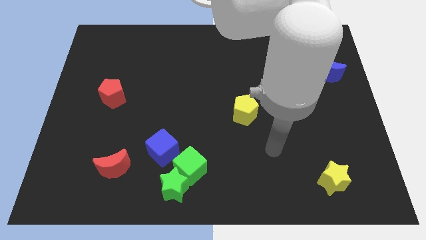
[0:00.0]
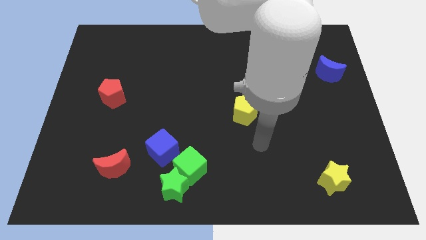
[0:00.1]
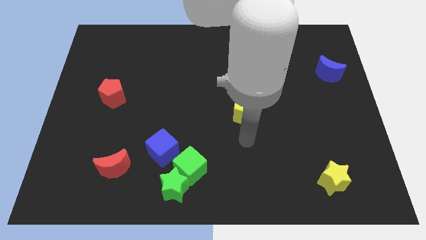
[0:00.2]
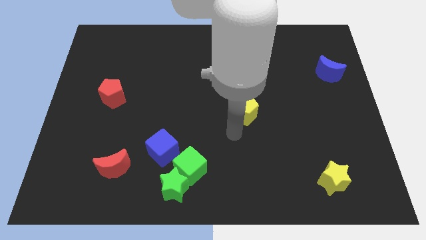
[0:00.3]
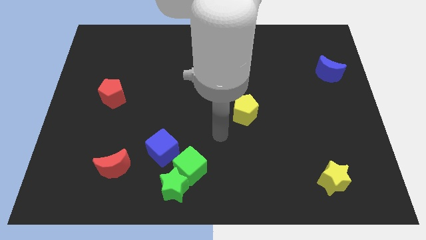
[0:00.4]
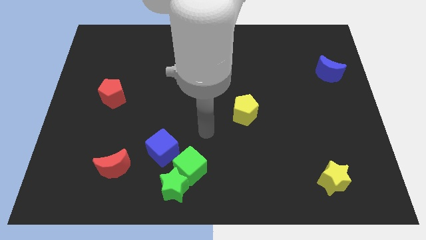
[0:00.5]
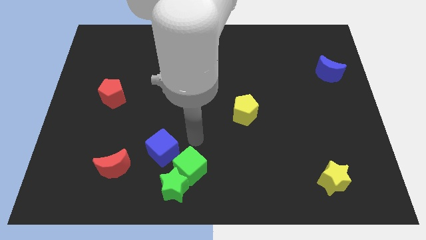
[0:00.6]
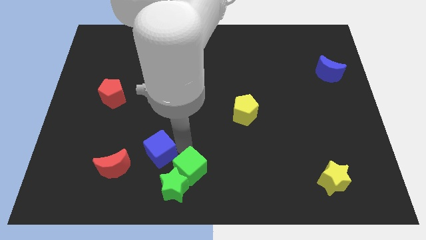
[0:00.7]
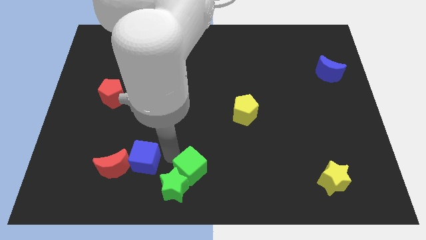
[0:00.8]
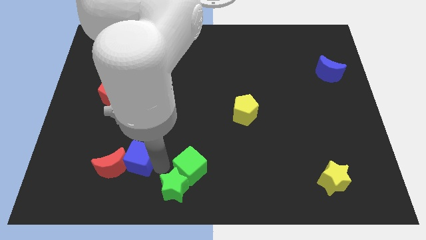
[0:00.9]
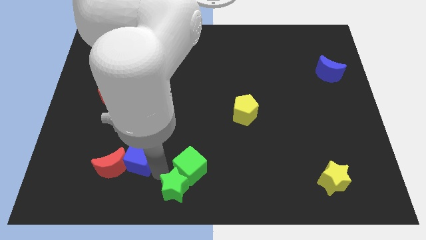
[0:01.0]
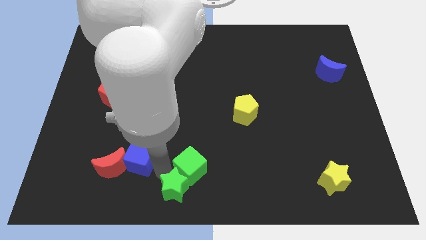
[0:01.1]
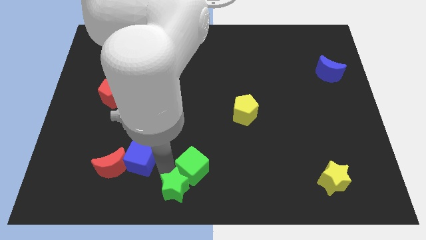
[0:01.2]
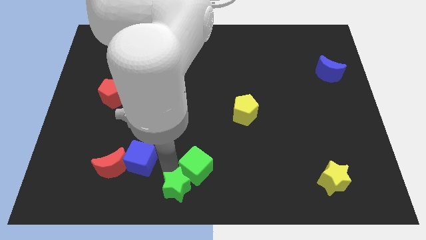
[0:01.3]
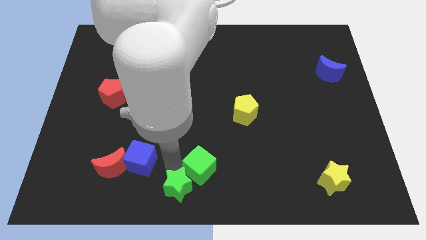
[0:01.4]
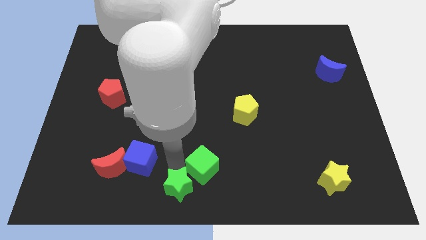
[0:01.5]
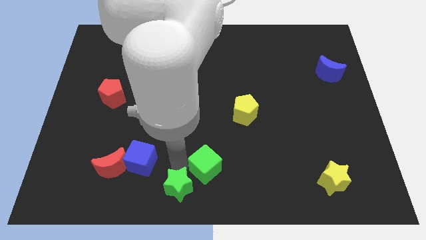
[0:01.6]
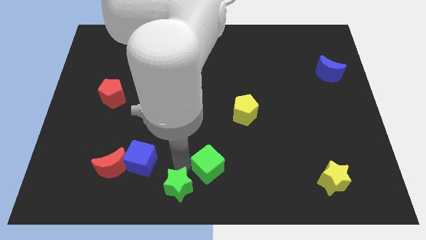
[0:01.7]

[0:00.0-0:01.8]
separate the green cube from the green star and blue cube

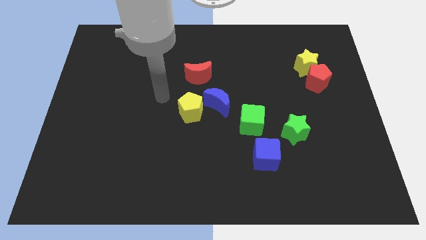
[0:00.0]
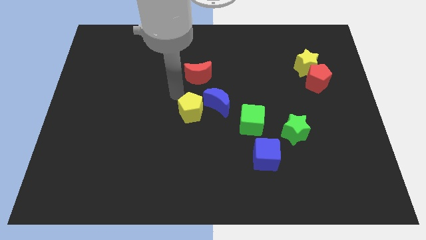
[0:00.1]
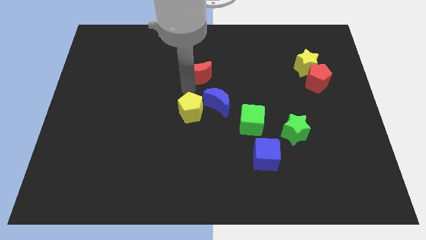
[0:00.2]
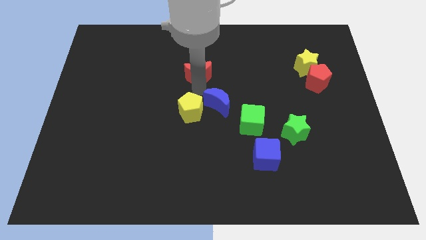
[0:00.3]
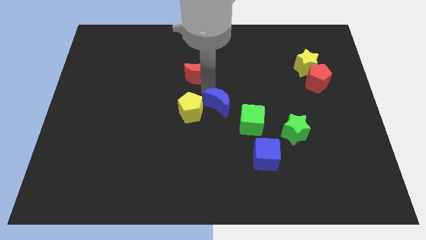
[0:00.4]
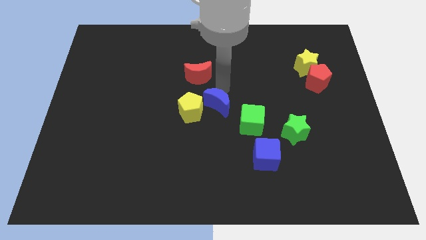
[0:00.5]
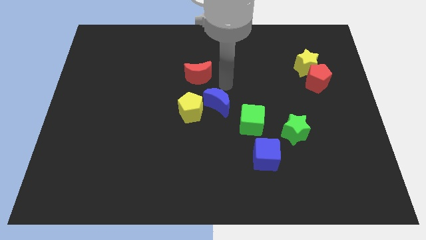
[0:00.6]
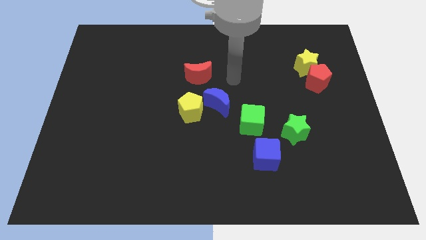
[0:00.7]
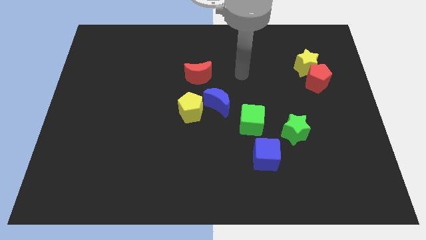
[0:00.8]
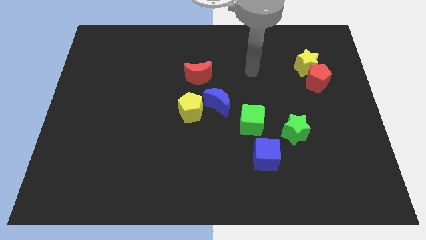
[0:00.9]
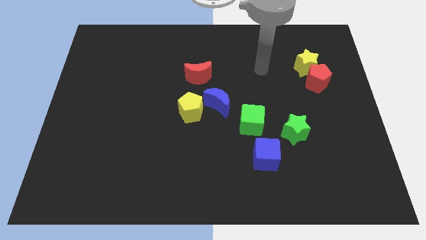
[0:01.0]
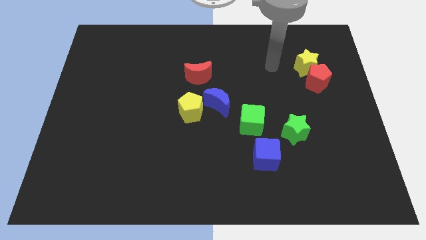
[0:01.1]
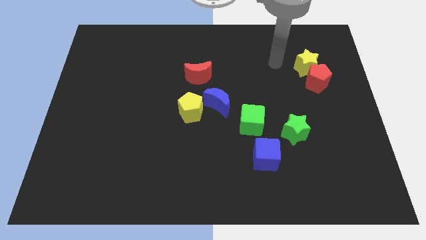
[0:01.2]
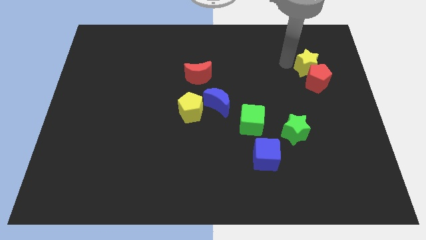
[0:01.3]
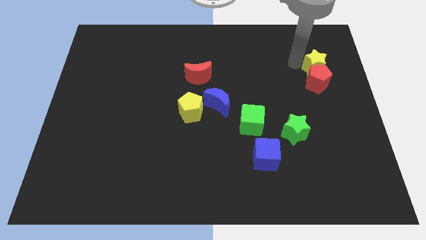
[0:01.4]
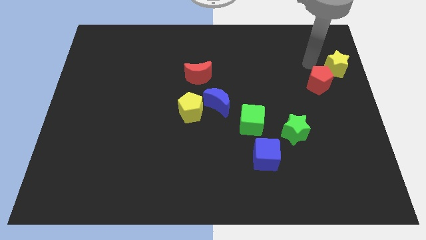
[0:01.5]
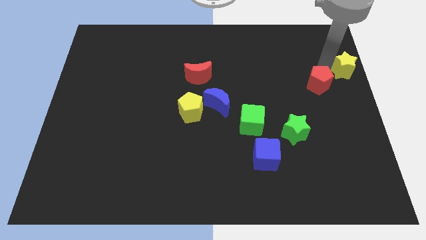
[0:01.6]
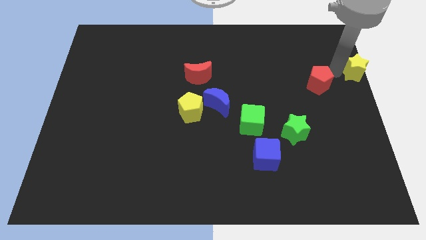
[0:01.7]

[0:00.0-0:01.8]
pull the red pentagon apart from the yellow star

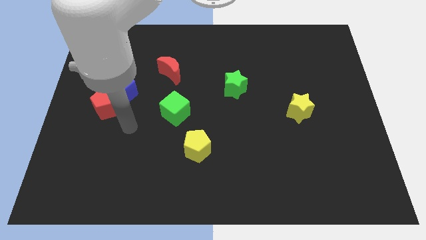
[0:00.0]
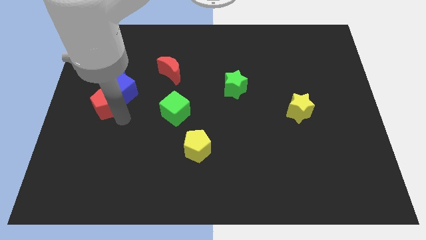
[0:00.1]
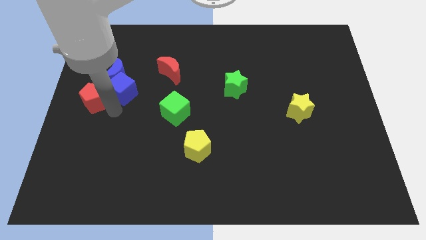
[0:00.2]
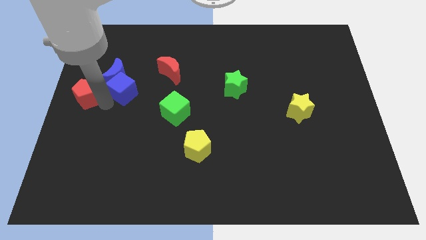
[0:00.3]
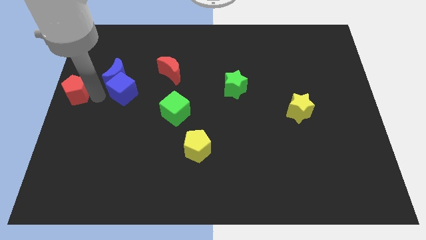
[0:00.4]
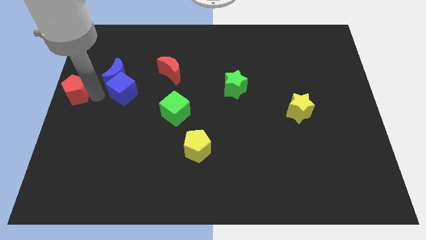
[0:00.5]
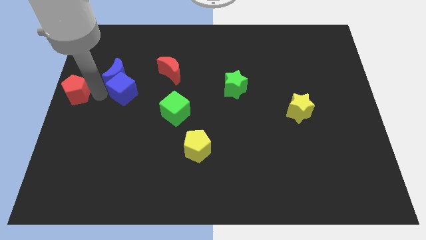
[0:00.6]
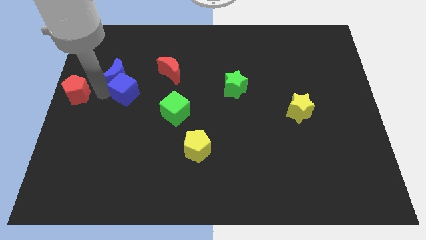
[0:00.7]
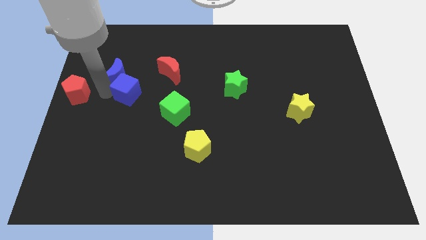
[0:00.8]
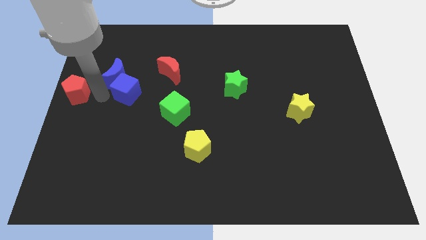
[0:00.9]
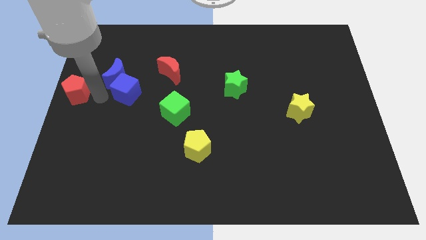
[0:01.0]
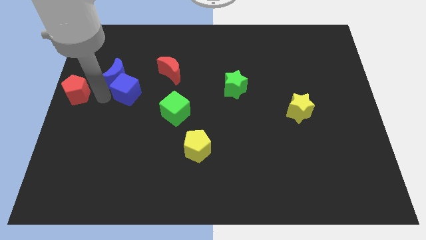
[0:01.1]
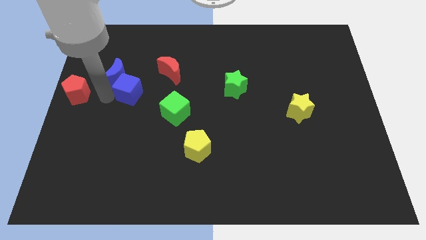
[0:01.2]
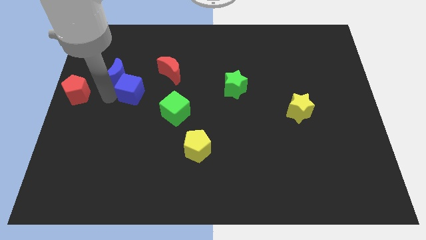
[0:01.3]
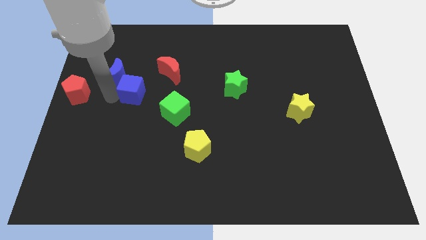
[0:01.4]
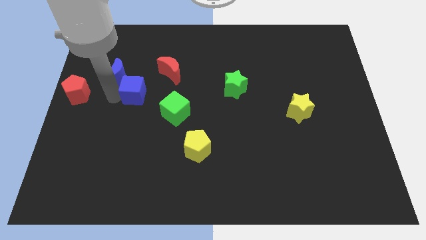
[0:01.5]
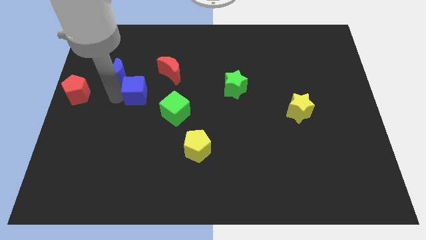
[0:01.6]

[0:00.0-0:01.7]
move the blue cube away from the blue moon and red pentagon

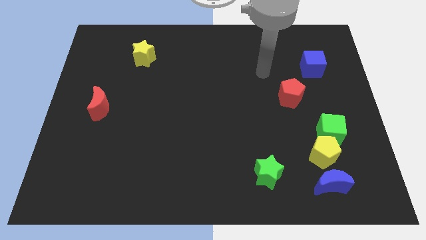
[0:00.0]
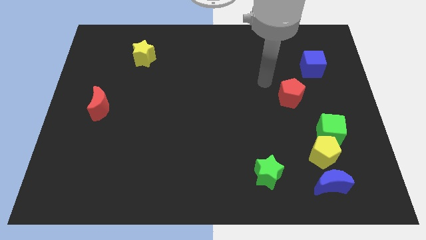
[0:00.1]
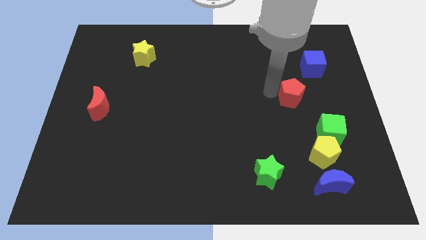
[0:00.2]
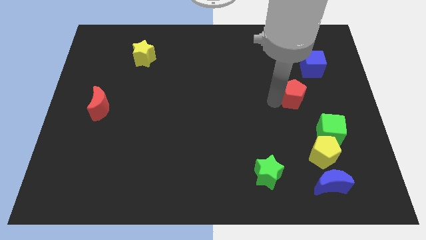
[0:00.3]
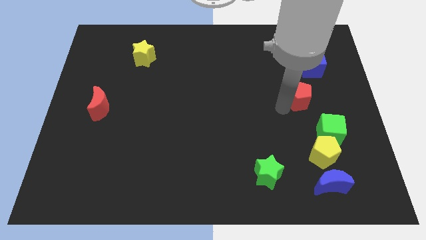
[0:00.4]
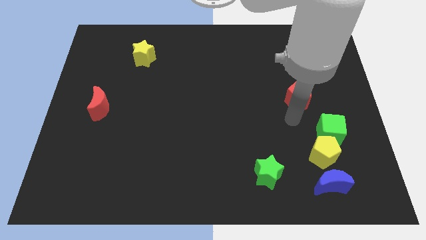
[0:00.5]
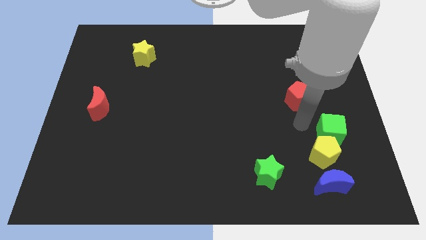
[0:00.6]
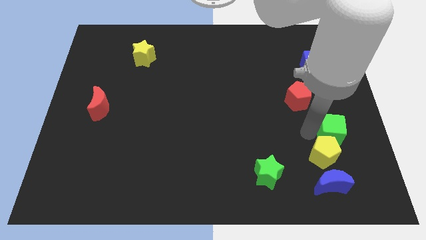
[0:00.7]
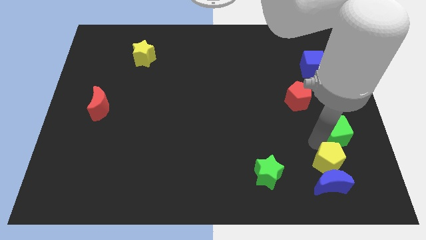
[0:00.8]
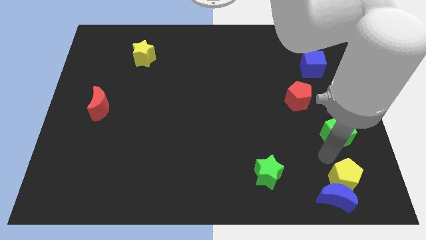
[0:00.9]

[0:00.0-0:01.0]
separate the green cube from the yellow pentagon

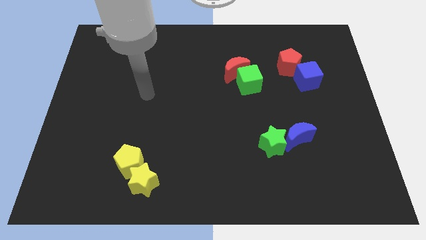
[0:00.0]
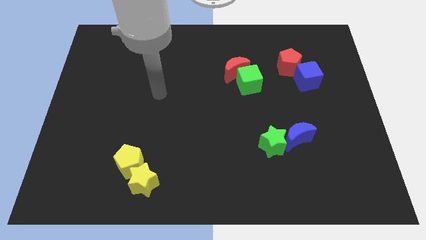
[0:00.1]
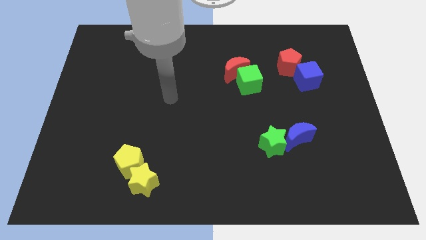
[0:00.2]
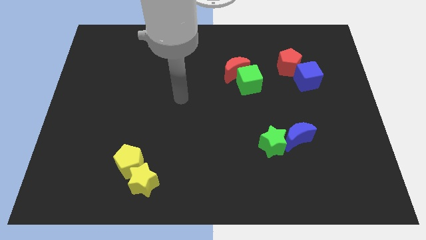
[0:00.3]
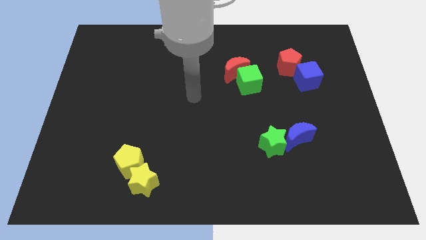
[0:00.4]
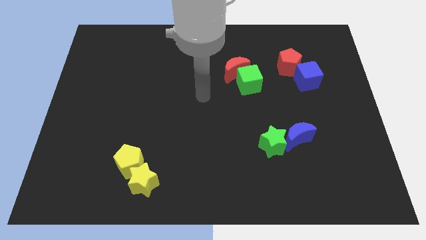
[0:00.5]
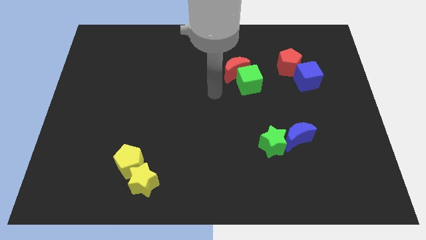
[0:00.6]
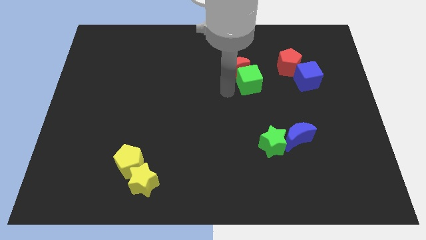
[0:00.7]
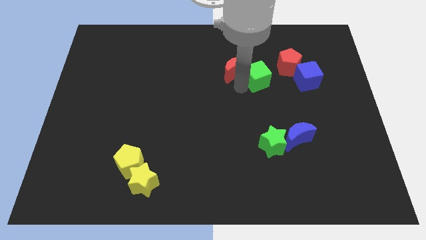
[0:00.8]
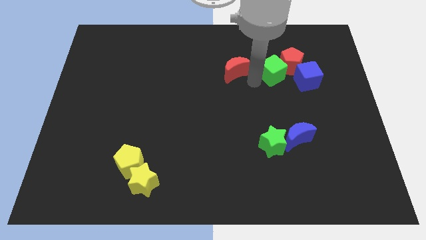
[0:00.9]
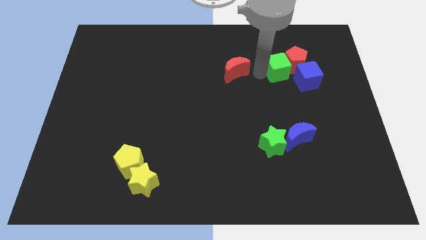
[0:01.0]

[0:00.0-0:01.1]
pull the red moon apart from the green cube

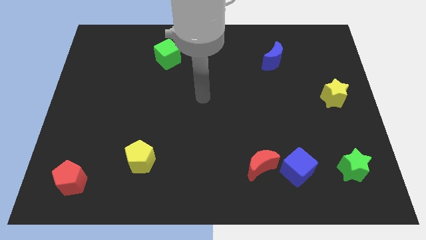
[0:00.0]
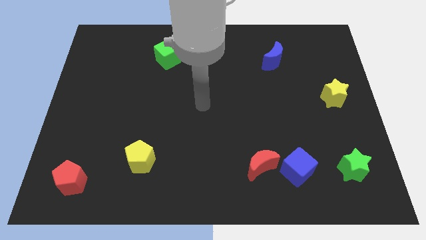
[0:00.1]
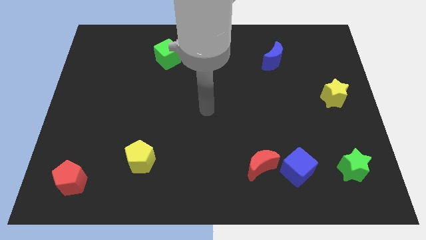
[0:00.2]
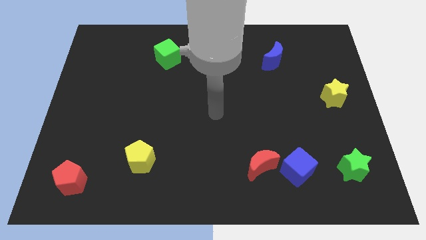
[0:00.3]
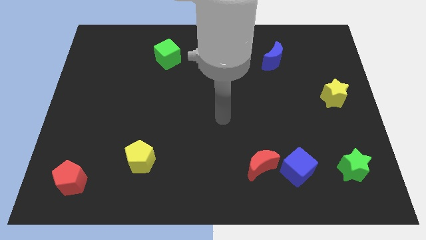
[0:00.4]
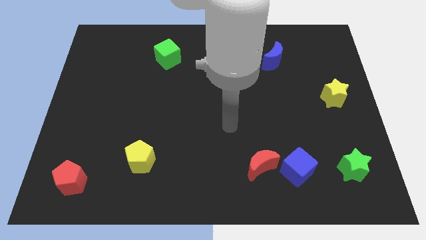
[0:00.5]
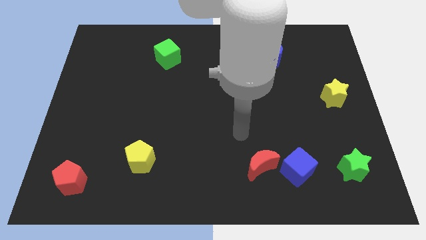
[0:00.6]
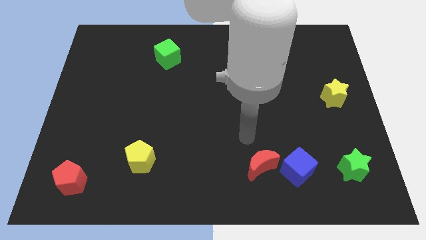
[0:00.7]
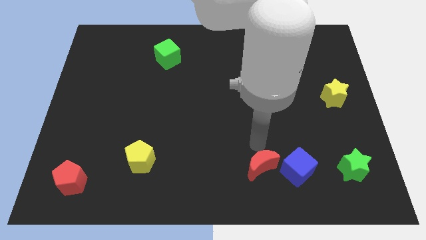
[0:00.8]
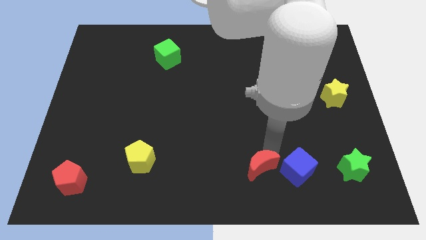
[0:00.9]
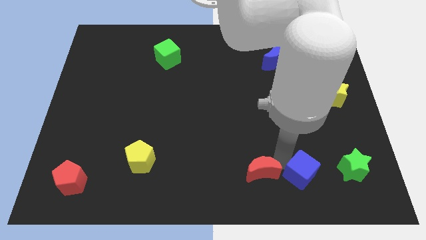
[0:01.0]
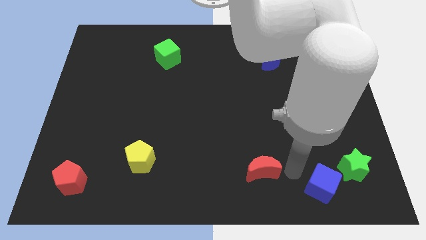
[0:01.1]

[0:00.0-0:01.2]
move the red moon away from the blue cube

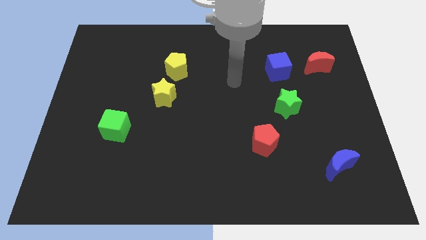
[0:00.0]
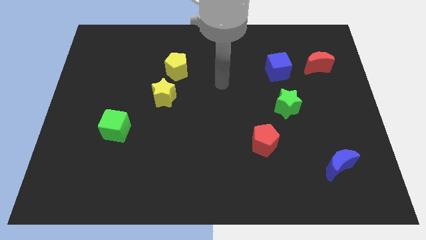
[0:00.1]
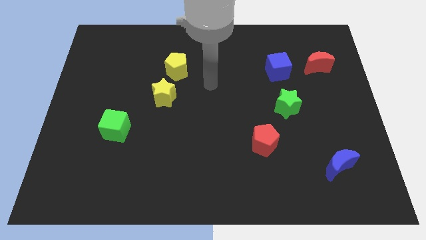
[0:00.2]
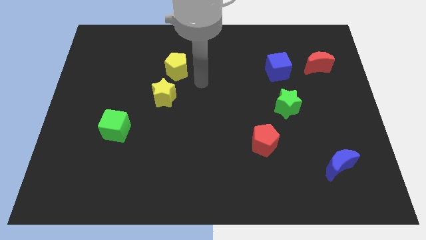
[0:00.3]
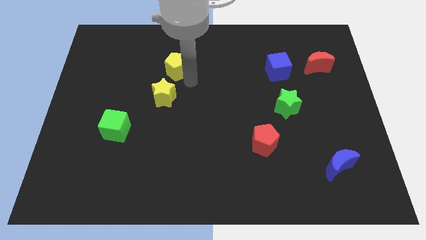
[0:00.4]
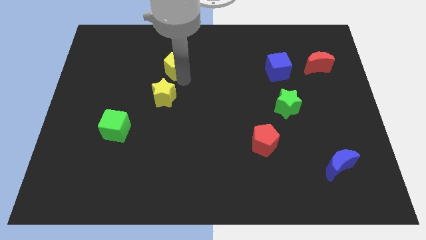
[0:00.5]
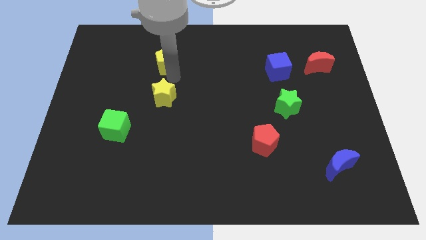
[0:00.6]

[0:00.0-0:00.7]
move the yellow star away from the yellow pentagon
